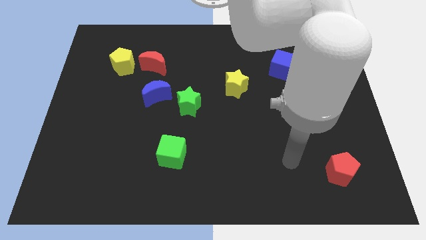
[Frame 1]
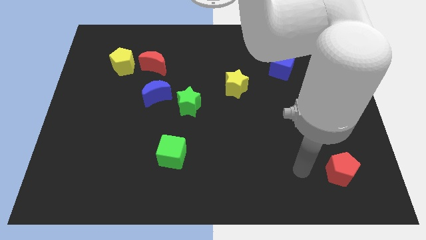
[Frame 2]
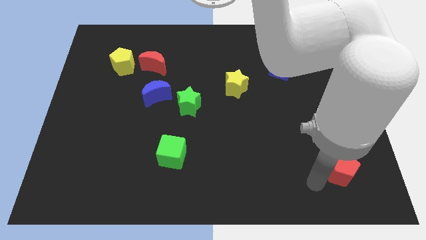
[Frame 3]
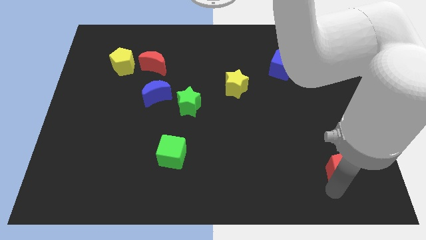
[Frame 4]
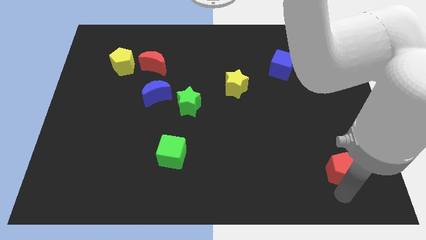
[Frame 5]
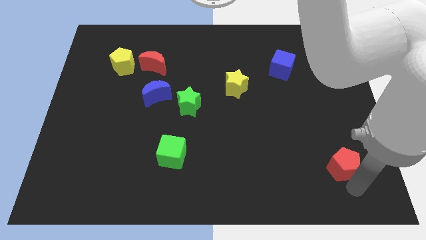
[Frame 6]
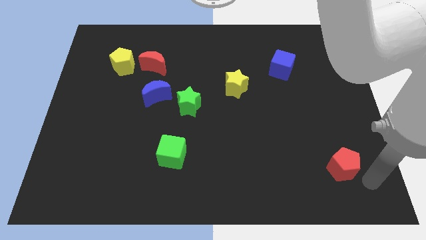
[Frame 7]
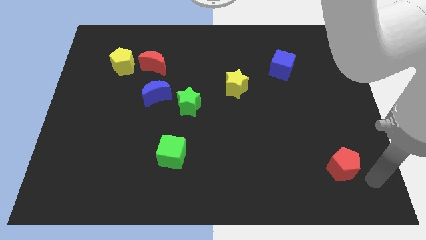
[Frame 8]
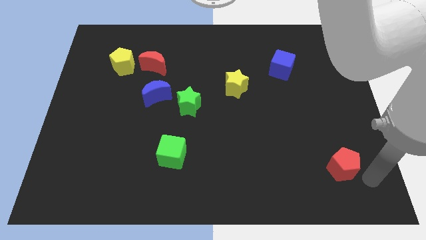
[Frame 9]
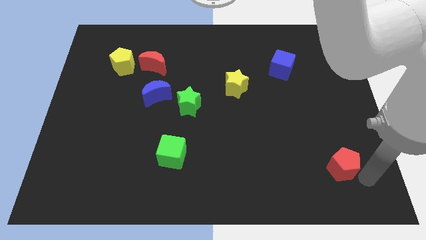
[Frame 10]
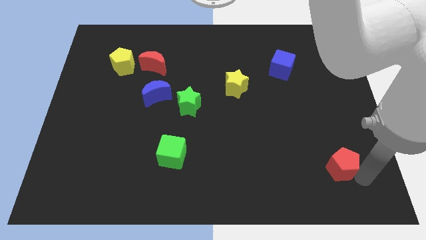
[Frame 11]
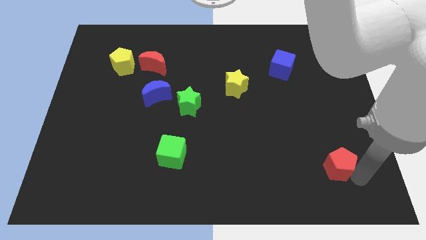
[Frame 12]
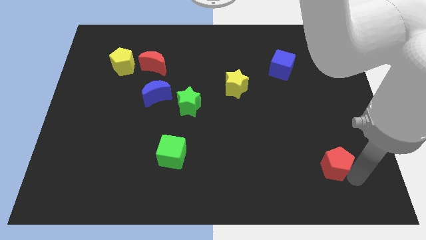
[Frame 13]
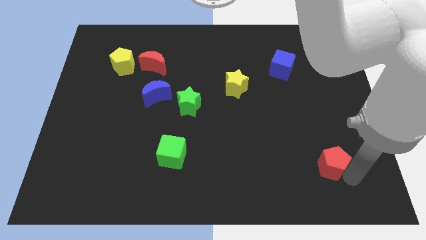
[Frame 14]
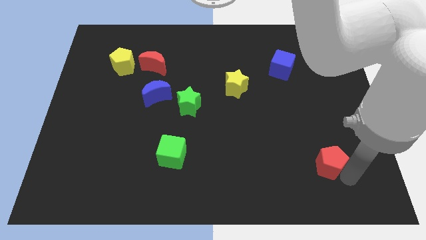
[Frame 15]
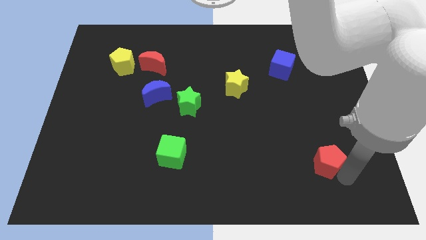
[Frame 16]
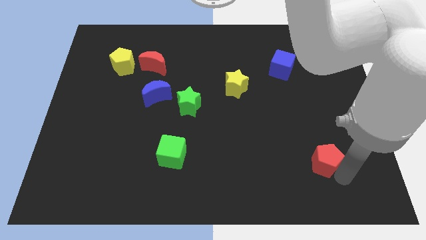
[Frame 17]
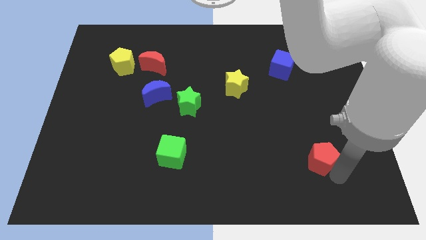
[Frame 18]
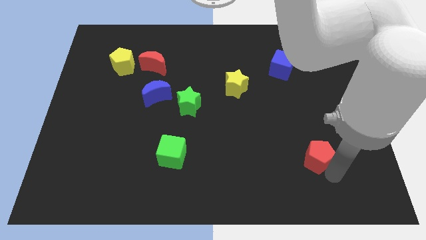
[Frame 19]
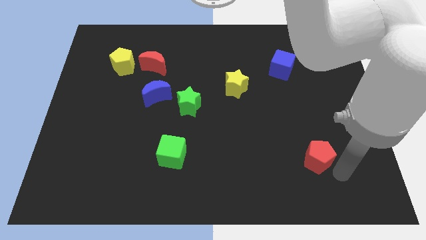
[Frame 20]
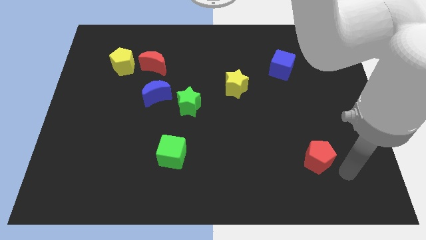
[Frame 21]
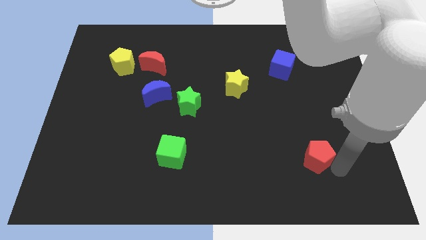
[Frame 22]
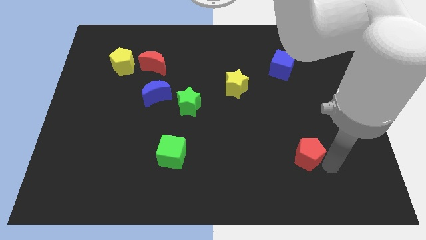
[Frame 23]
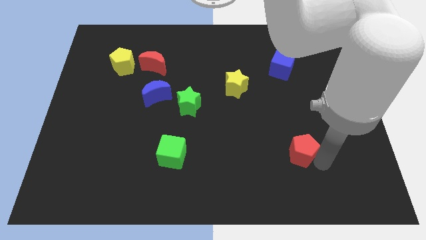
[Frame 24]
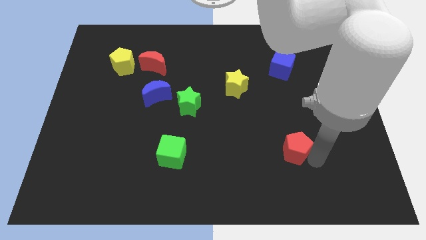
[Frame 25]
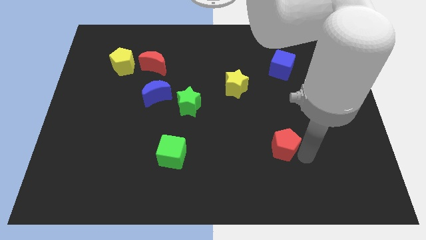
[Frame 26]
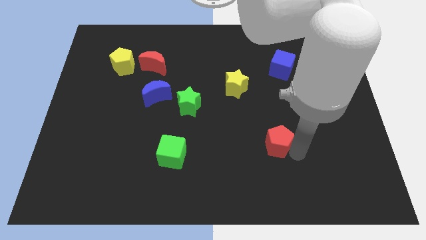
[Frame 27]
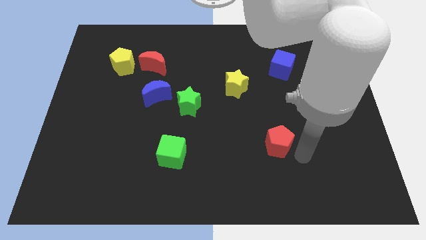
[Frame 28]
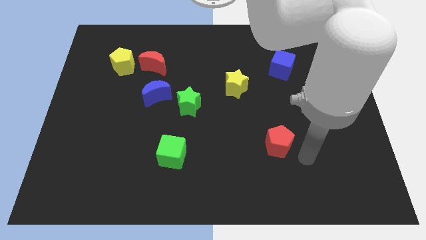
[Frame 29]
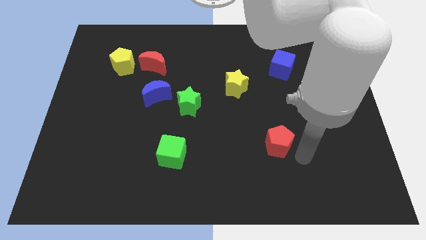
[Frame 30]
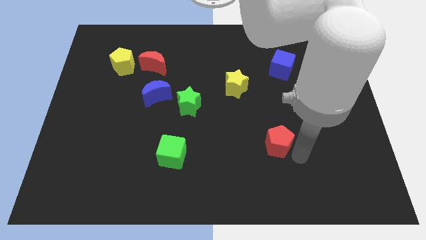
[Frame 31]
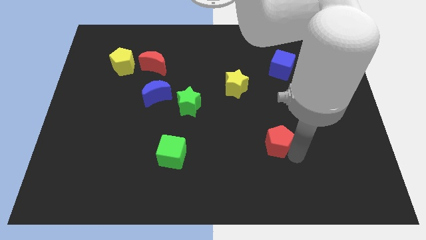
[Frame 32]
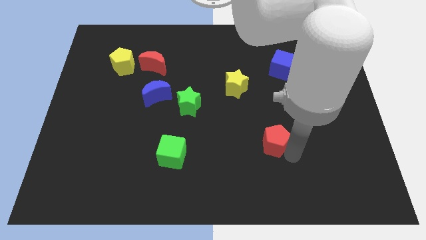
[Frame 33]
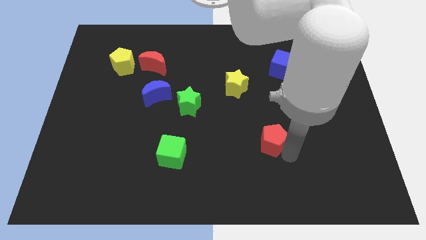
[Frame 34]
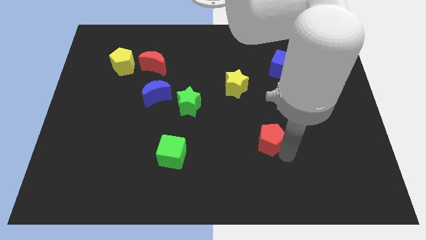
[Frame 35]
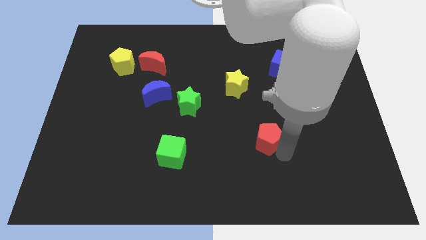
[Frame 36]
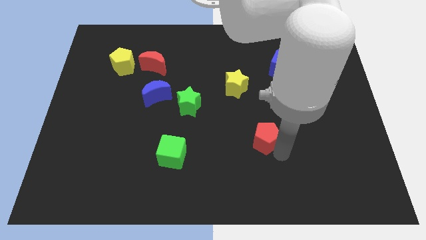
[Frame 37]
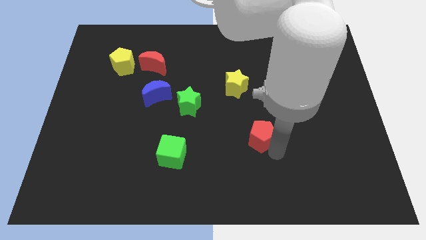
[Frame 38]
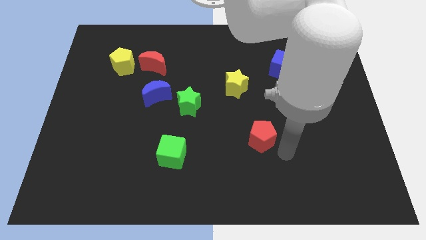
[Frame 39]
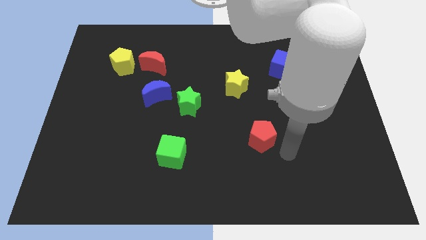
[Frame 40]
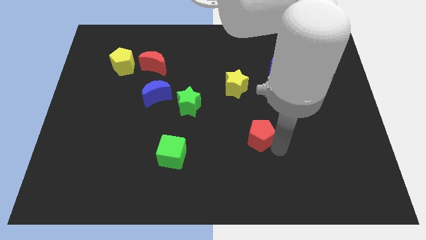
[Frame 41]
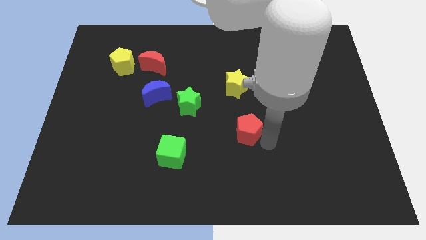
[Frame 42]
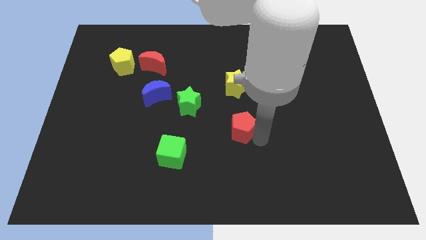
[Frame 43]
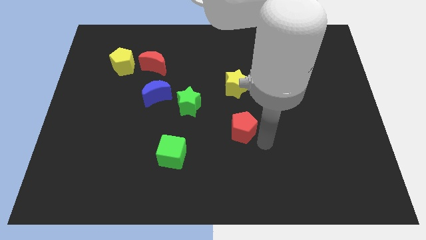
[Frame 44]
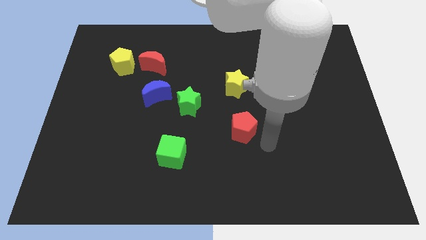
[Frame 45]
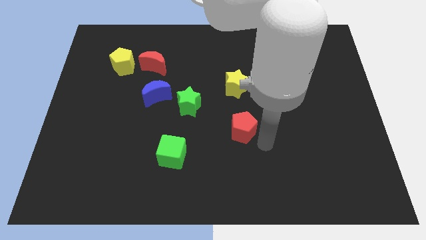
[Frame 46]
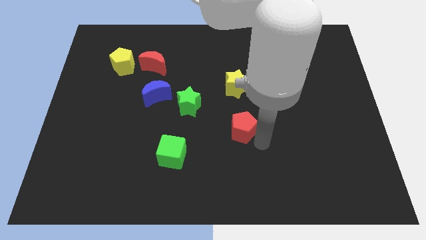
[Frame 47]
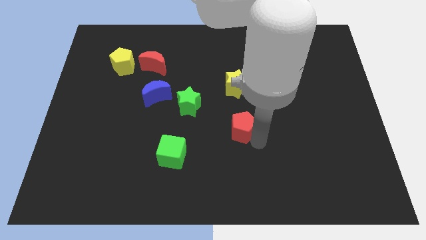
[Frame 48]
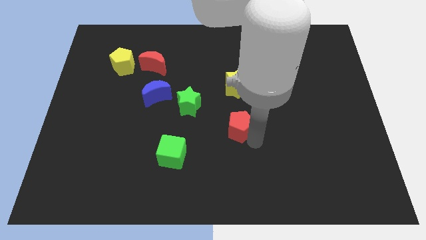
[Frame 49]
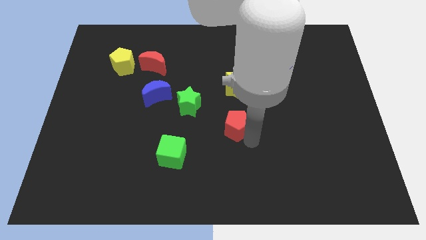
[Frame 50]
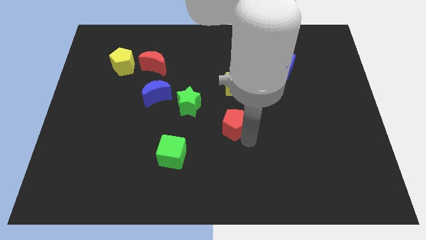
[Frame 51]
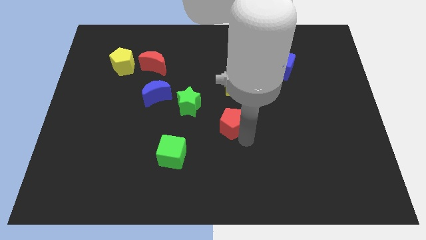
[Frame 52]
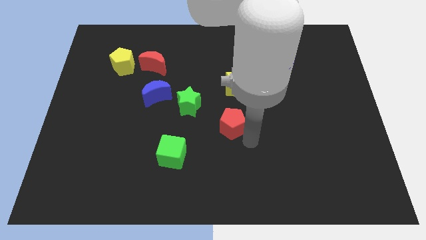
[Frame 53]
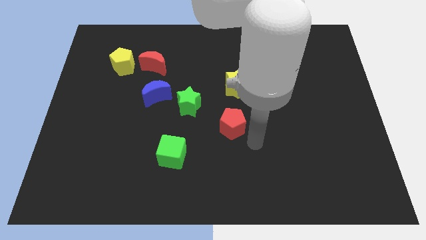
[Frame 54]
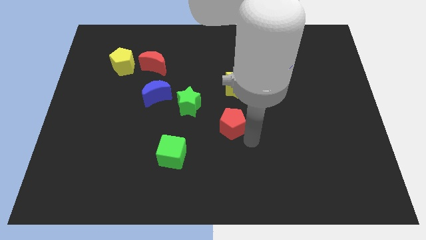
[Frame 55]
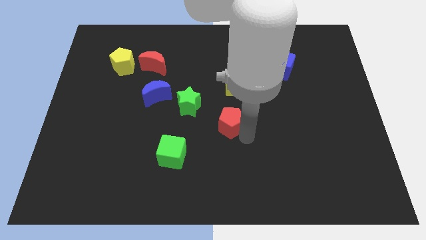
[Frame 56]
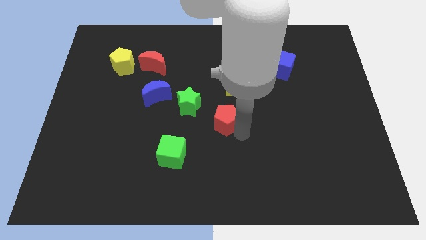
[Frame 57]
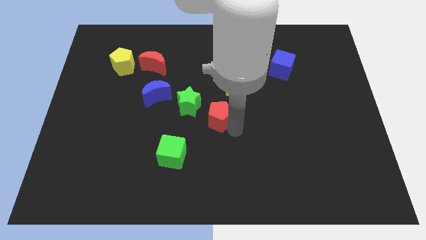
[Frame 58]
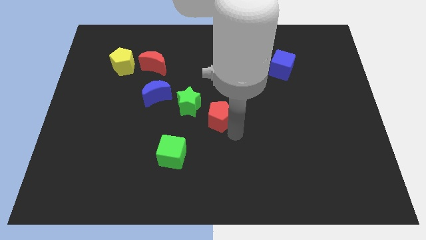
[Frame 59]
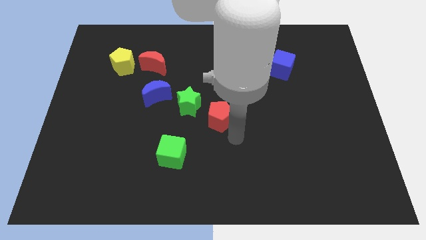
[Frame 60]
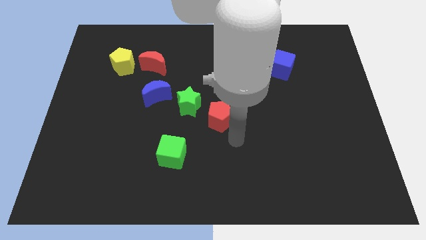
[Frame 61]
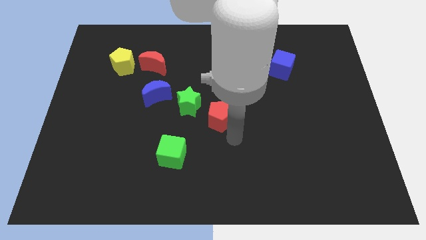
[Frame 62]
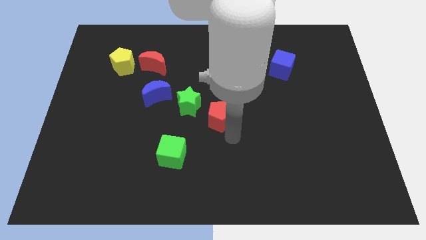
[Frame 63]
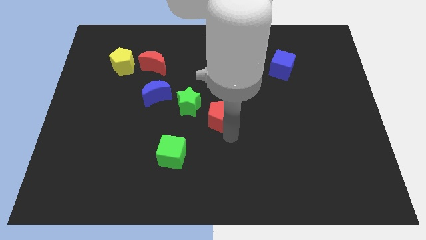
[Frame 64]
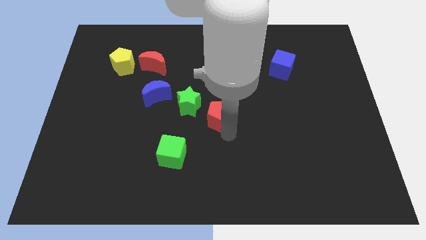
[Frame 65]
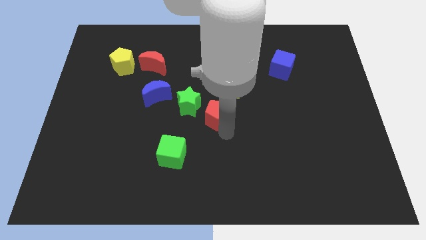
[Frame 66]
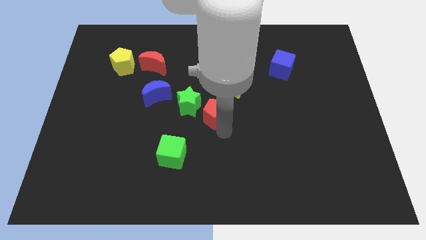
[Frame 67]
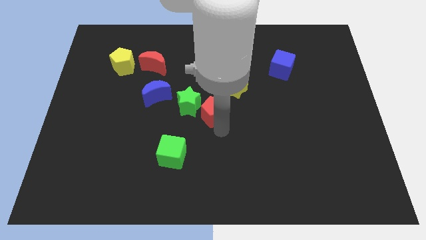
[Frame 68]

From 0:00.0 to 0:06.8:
move the red pentagon towards the green star
